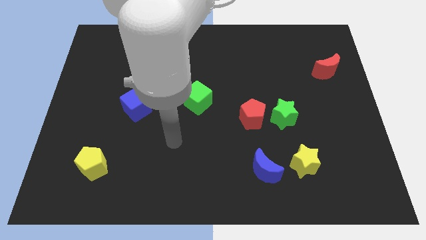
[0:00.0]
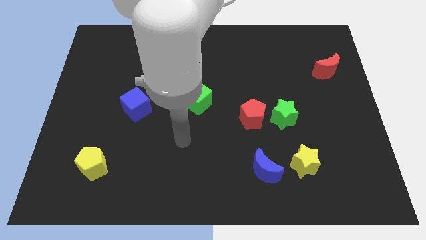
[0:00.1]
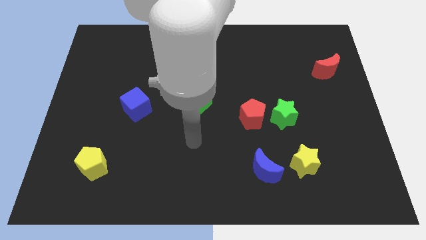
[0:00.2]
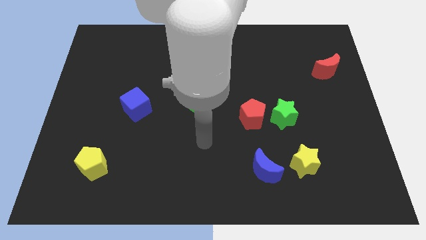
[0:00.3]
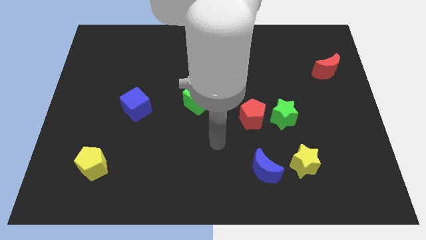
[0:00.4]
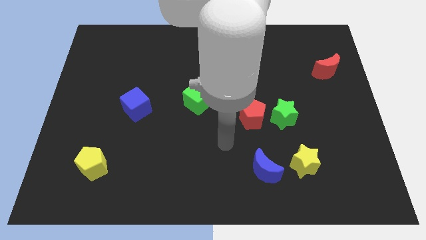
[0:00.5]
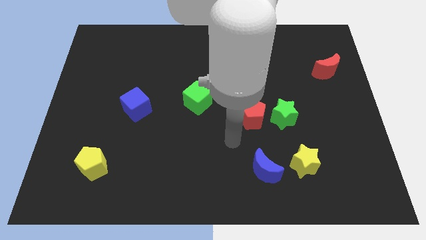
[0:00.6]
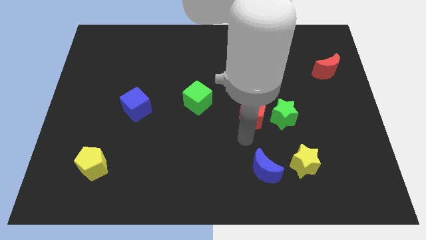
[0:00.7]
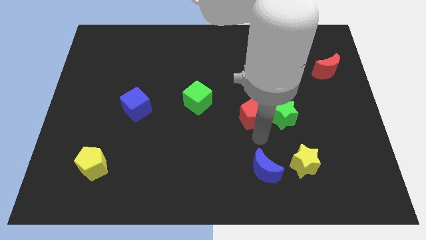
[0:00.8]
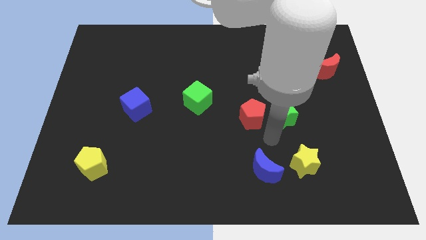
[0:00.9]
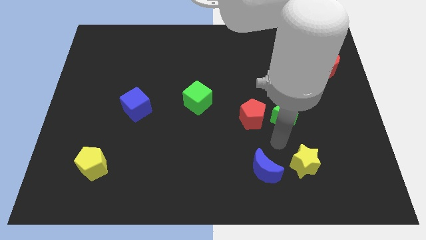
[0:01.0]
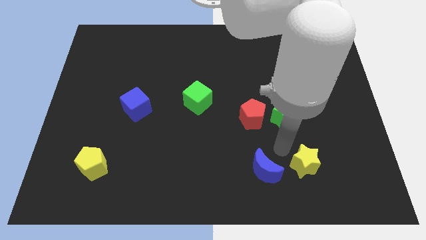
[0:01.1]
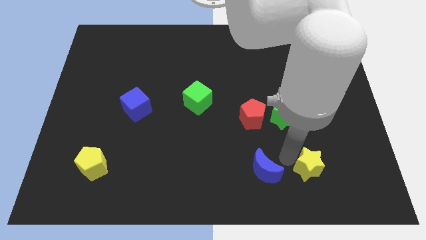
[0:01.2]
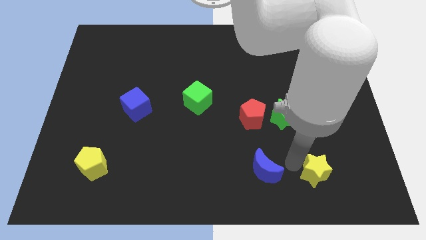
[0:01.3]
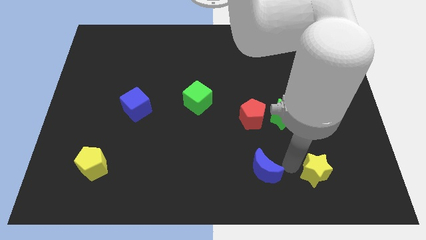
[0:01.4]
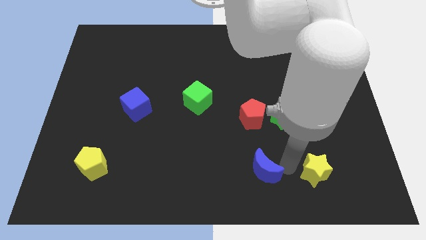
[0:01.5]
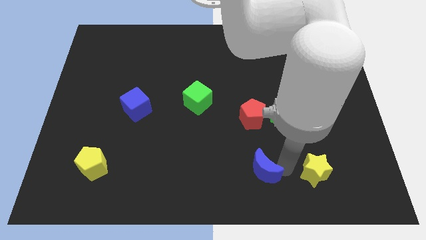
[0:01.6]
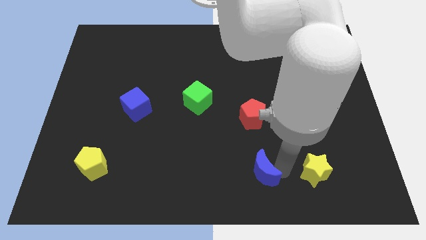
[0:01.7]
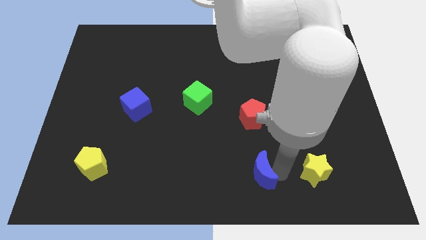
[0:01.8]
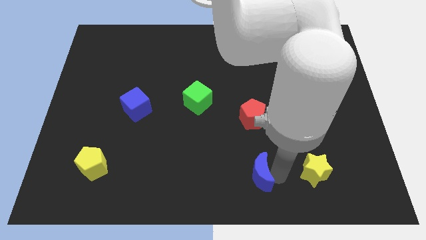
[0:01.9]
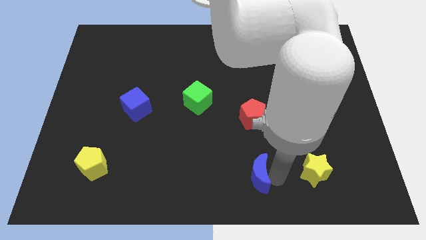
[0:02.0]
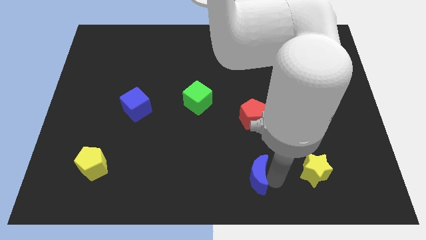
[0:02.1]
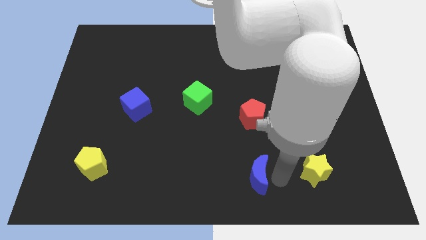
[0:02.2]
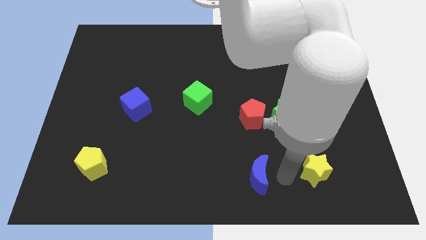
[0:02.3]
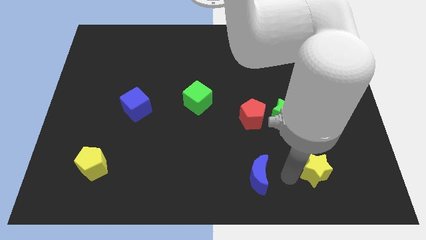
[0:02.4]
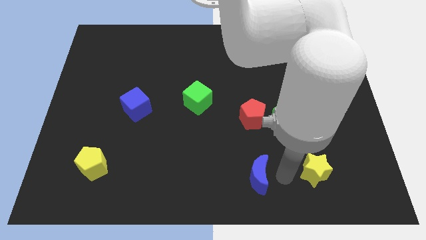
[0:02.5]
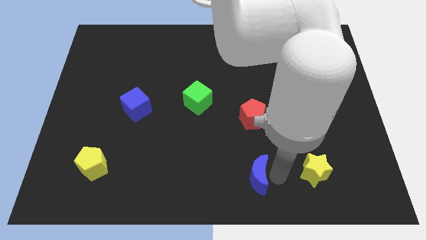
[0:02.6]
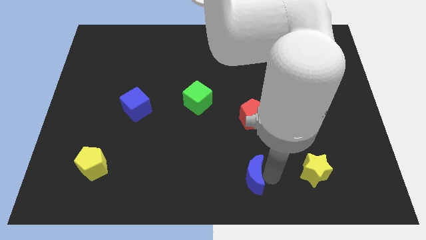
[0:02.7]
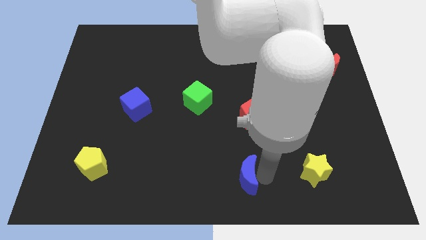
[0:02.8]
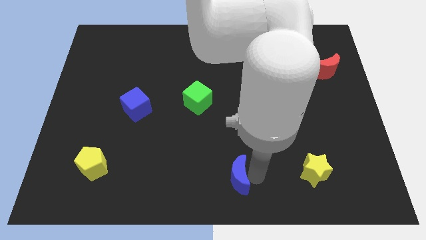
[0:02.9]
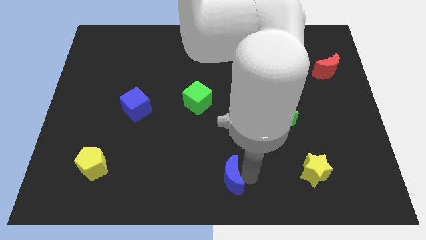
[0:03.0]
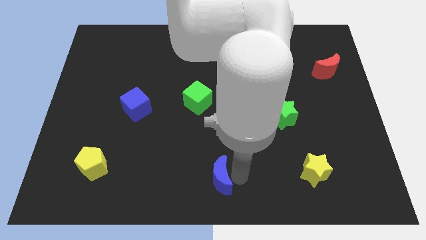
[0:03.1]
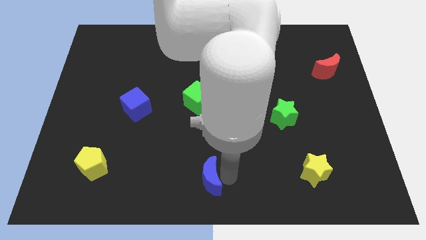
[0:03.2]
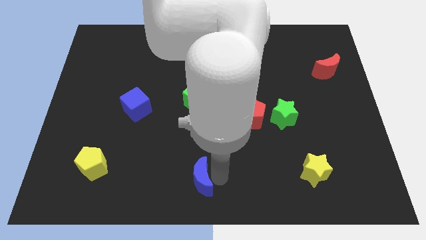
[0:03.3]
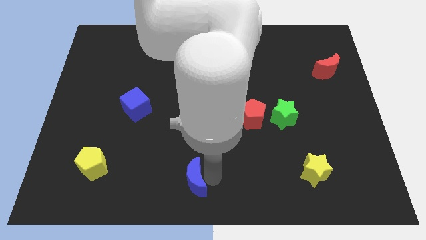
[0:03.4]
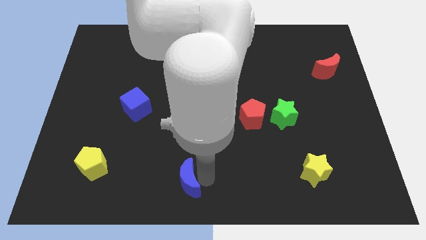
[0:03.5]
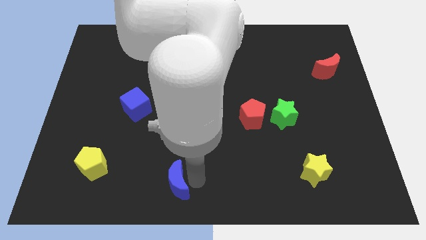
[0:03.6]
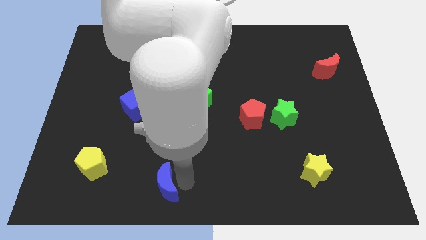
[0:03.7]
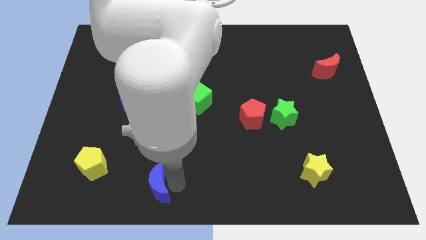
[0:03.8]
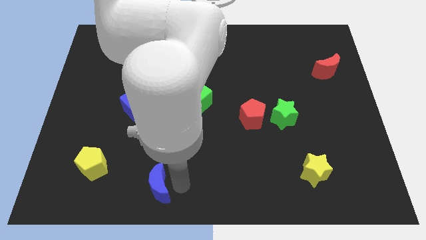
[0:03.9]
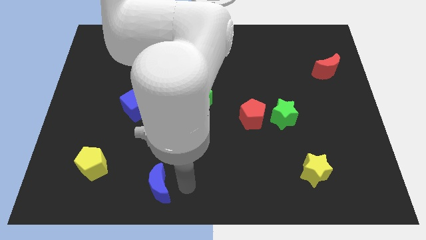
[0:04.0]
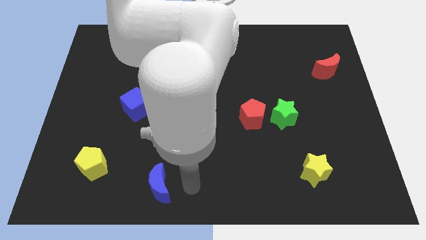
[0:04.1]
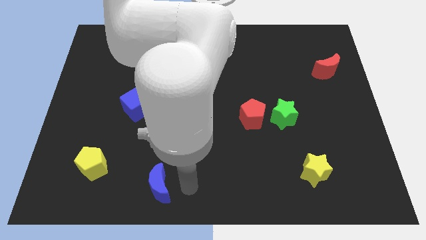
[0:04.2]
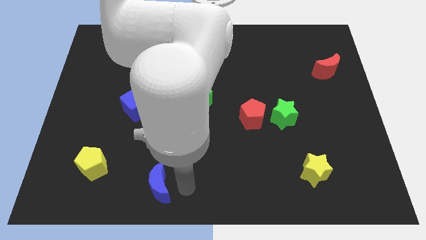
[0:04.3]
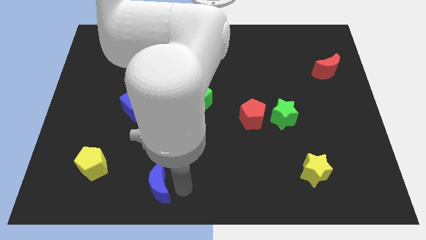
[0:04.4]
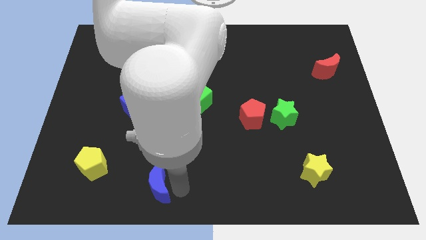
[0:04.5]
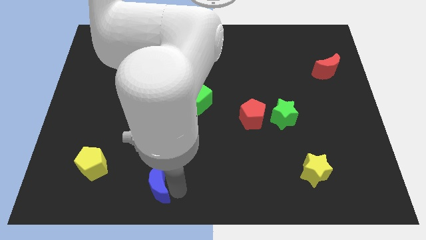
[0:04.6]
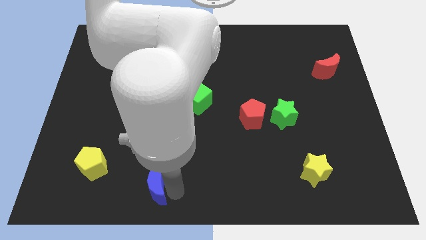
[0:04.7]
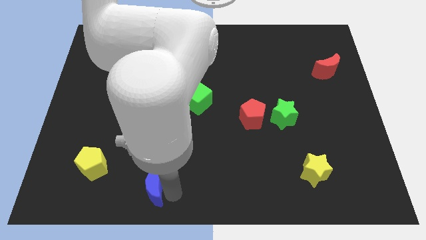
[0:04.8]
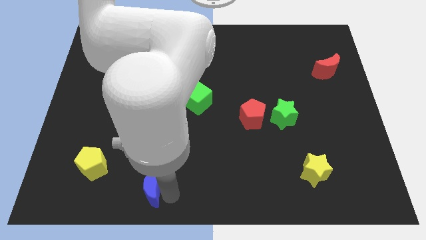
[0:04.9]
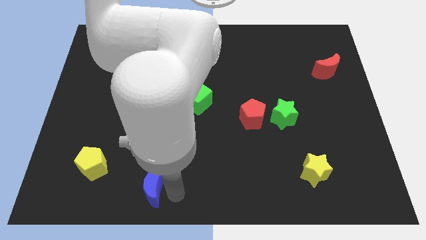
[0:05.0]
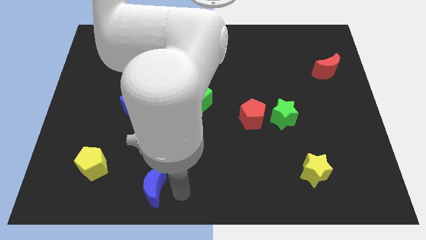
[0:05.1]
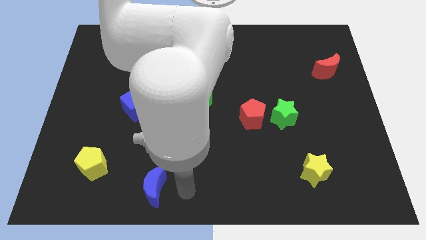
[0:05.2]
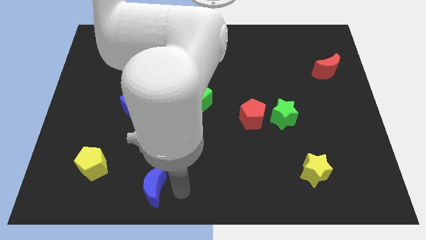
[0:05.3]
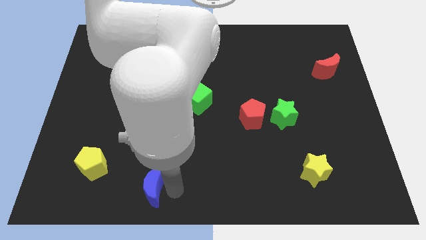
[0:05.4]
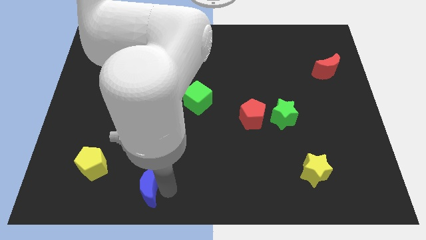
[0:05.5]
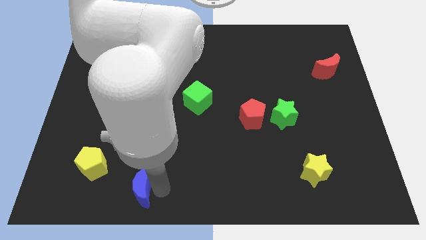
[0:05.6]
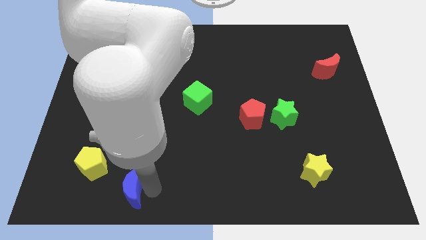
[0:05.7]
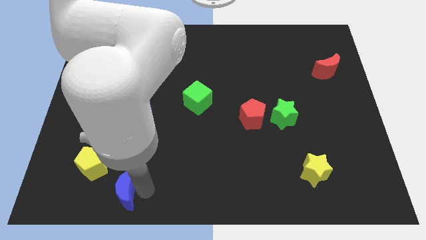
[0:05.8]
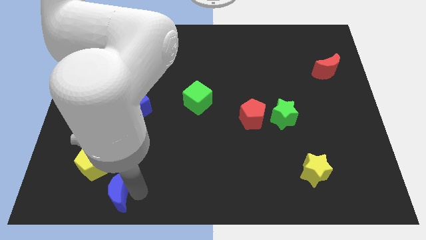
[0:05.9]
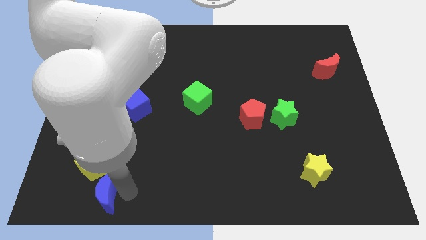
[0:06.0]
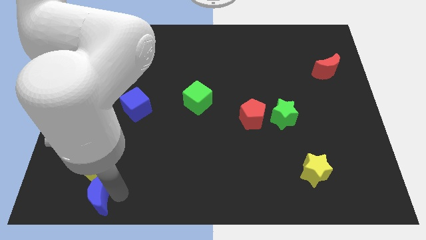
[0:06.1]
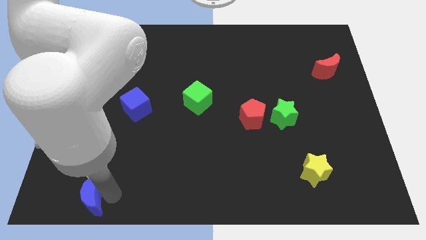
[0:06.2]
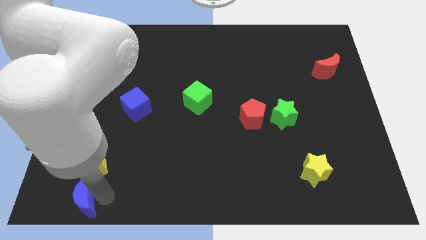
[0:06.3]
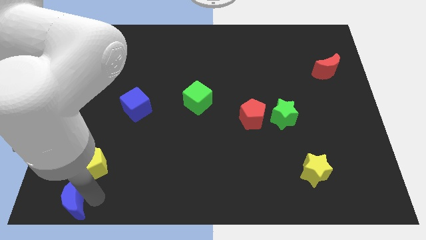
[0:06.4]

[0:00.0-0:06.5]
move the blue moon to the lower left corner
